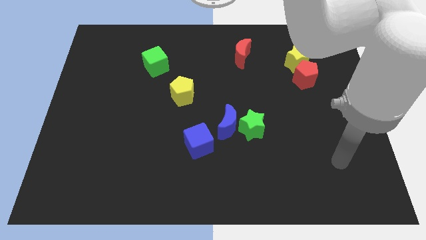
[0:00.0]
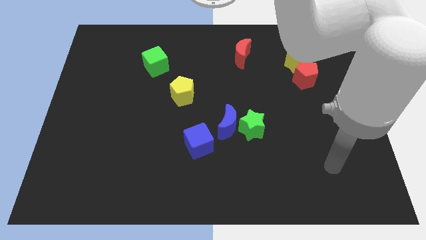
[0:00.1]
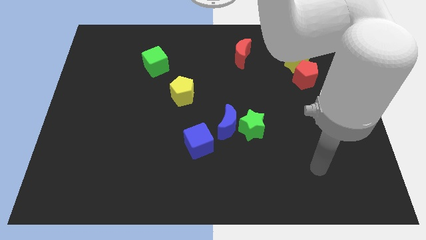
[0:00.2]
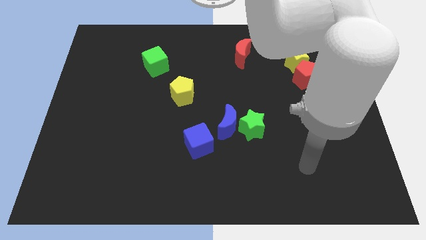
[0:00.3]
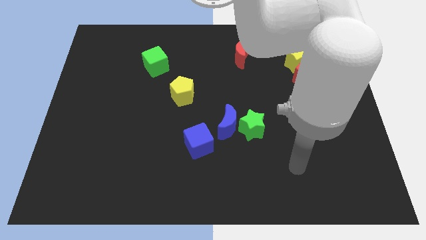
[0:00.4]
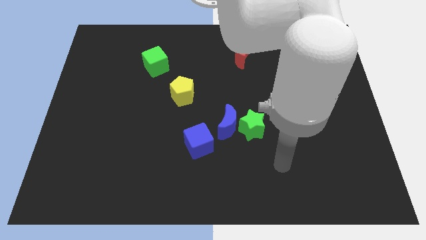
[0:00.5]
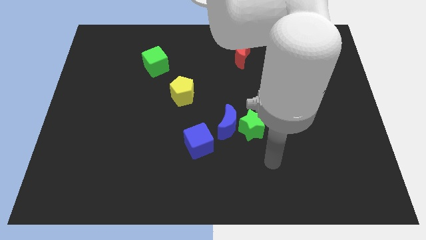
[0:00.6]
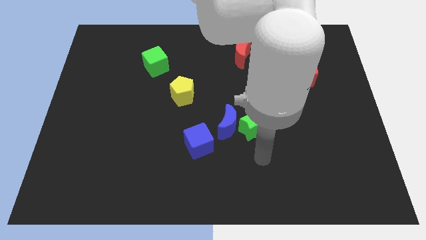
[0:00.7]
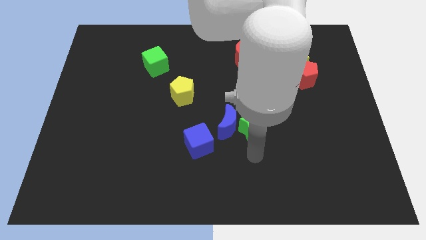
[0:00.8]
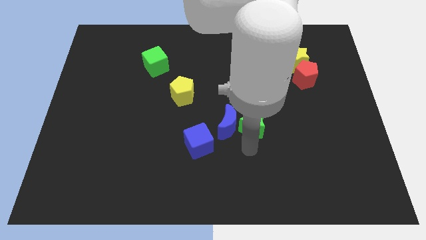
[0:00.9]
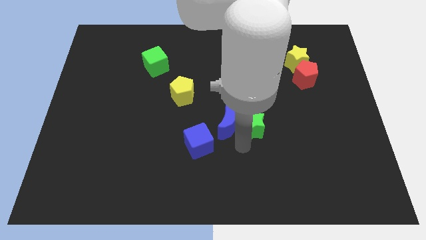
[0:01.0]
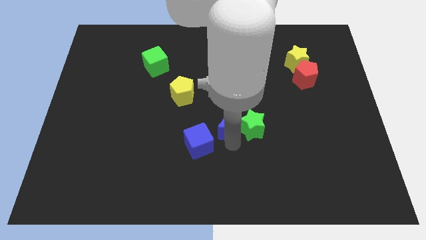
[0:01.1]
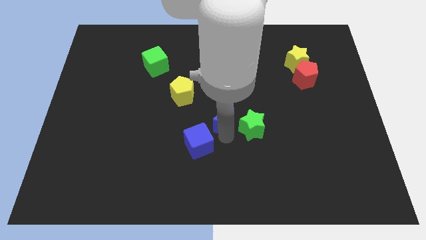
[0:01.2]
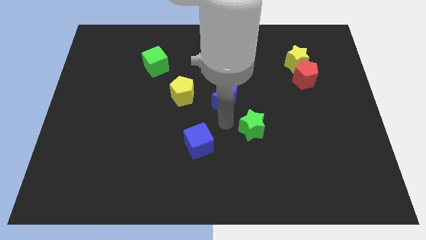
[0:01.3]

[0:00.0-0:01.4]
move the green star away from the blue moon

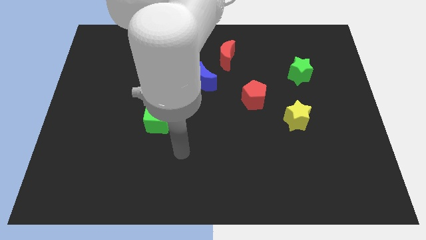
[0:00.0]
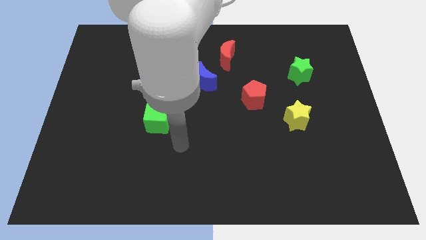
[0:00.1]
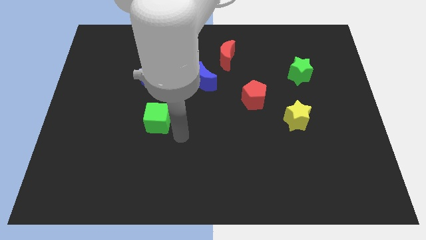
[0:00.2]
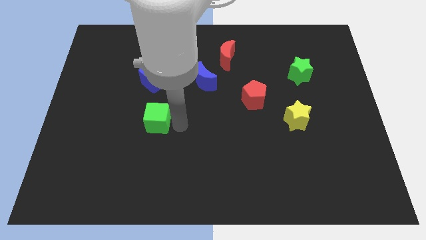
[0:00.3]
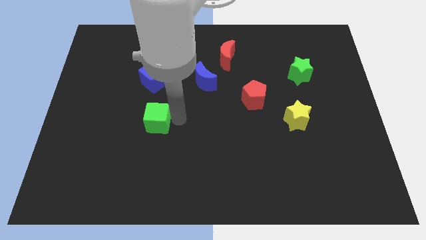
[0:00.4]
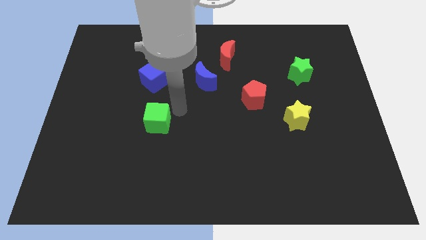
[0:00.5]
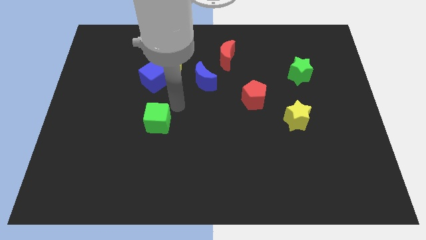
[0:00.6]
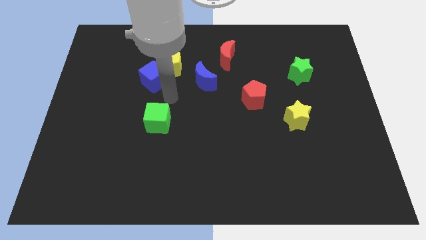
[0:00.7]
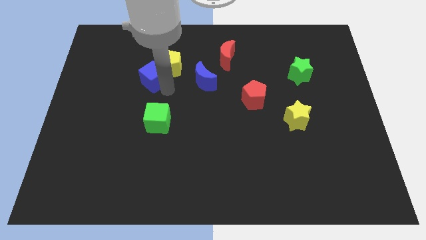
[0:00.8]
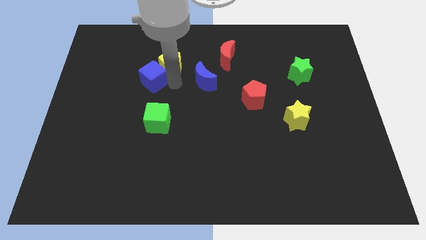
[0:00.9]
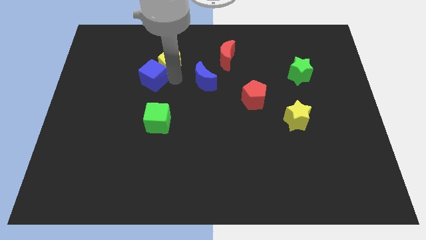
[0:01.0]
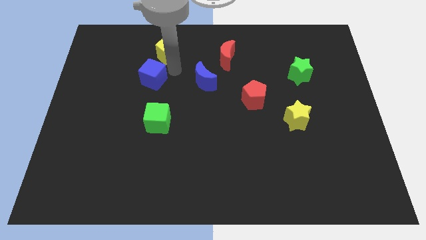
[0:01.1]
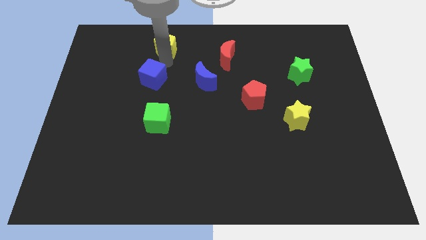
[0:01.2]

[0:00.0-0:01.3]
pull the blue cube apart from the yellow pentagon

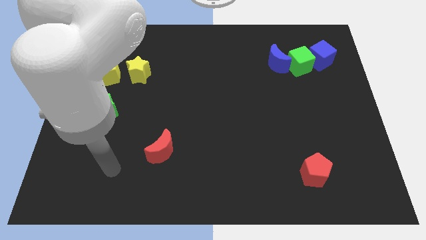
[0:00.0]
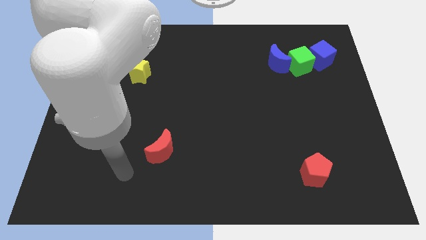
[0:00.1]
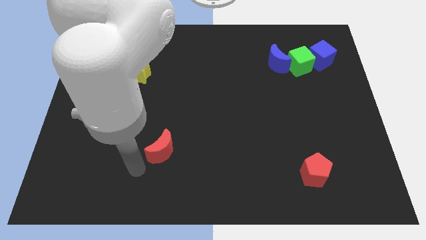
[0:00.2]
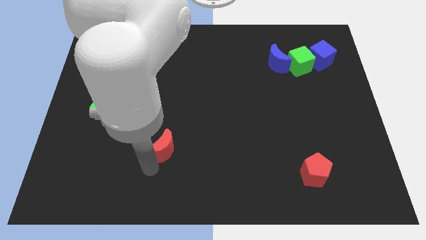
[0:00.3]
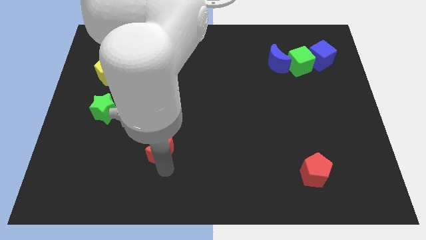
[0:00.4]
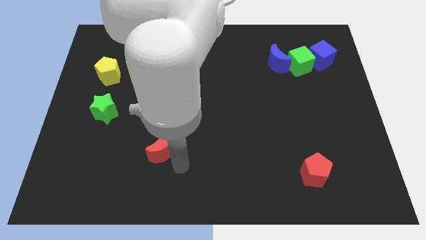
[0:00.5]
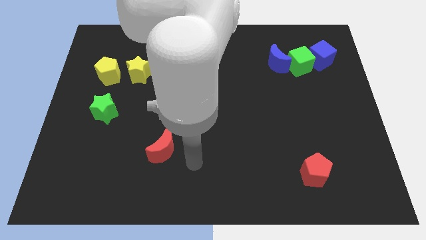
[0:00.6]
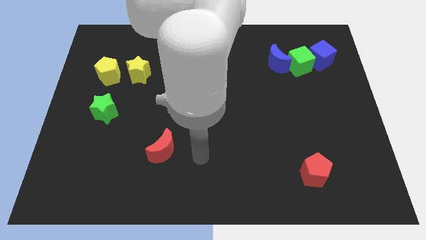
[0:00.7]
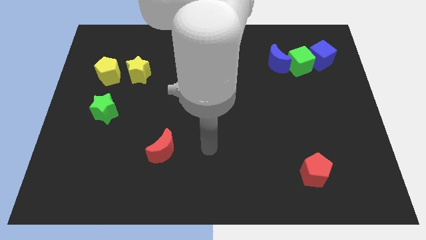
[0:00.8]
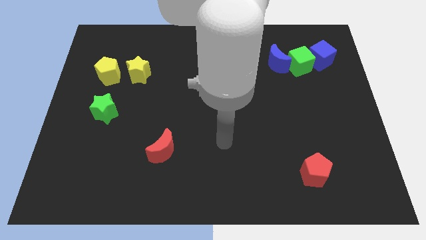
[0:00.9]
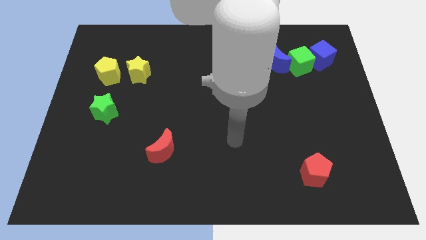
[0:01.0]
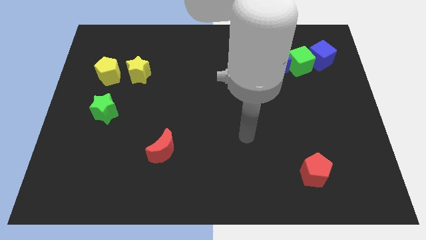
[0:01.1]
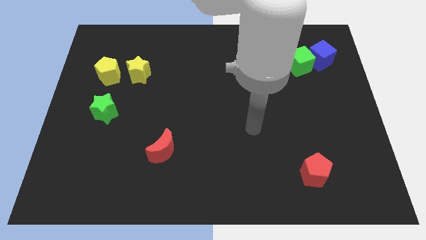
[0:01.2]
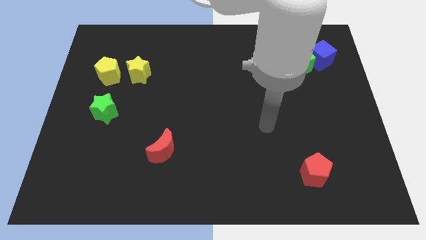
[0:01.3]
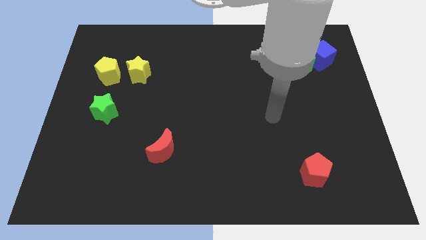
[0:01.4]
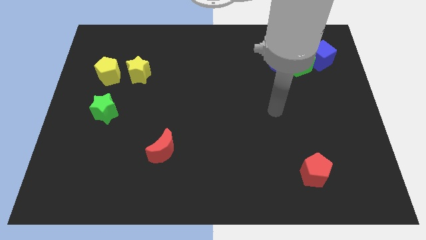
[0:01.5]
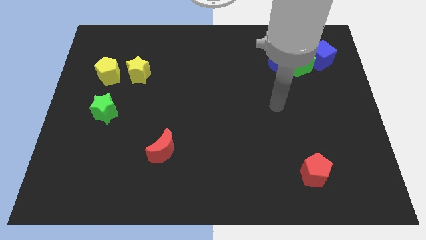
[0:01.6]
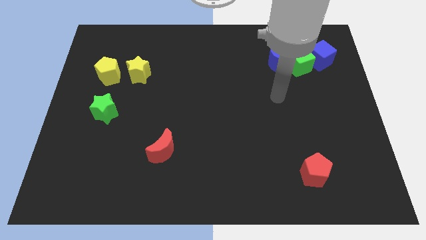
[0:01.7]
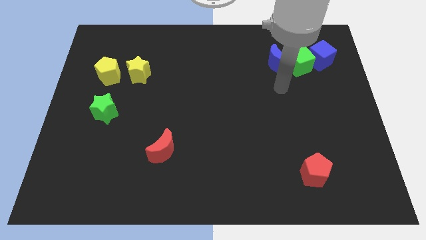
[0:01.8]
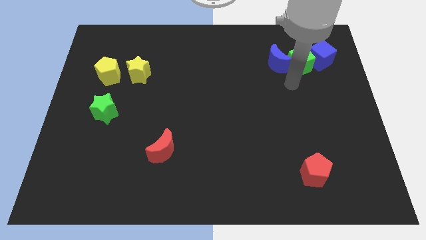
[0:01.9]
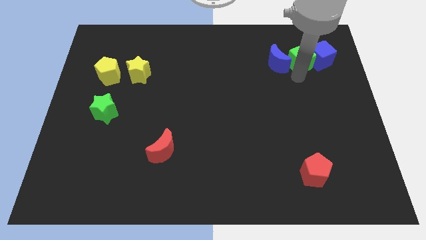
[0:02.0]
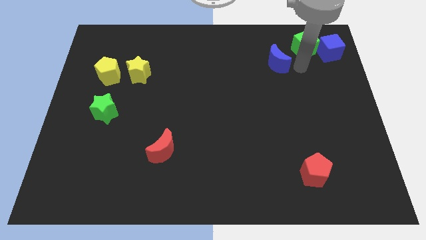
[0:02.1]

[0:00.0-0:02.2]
separate the blue moon from the green cube

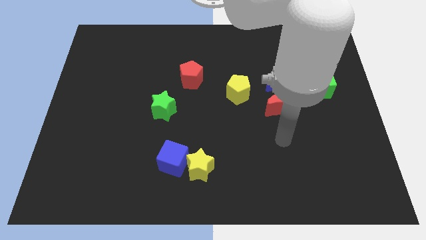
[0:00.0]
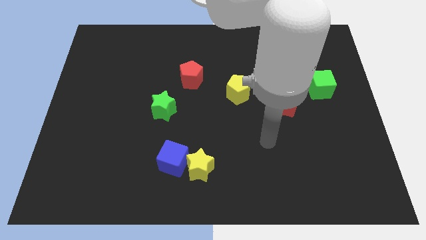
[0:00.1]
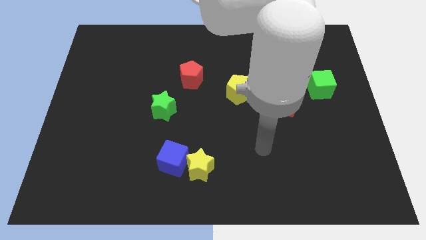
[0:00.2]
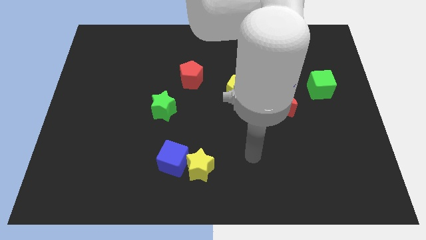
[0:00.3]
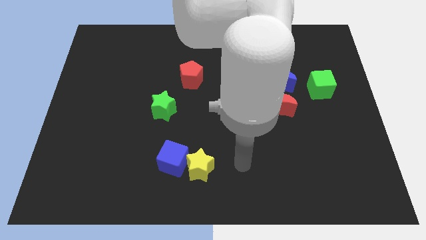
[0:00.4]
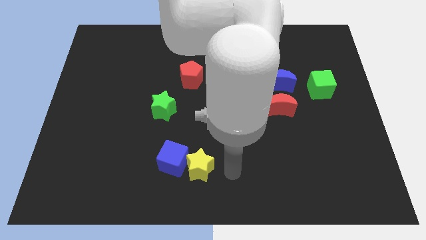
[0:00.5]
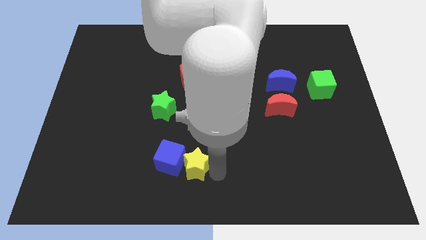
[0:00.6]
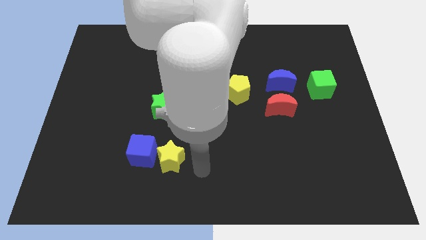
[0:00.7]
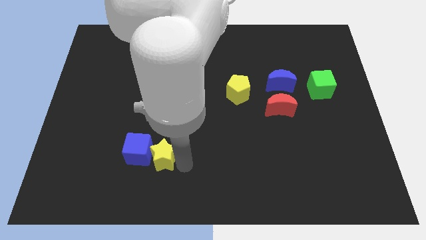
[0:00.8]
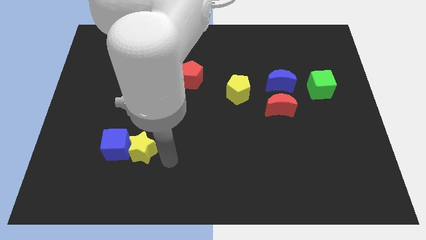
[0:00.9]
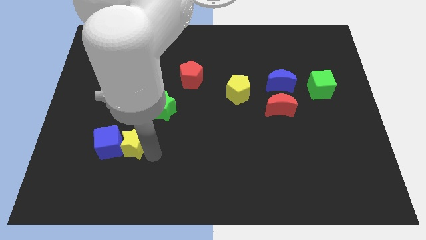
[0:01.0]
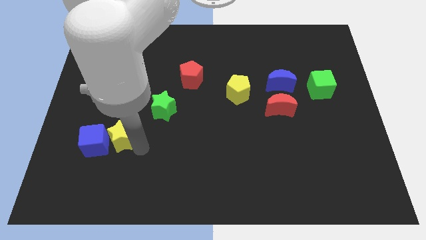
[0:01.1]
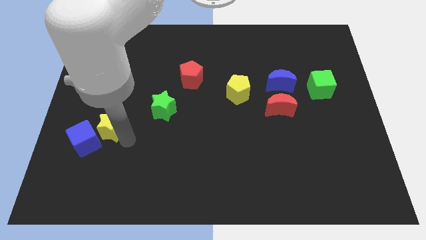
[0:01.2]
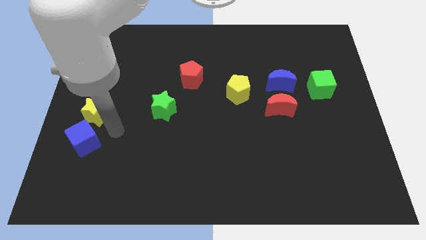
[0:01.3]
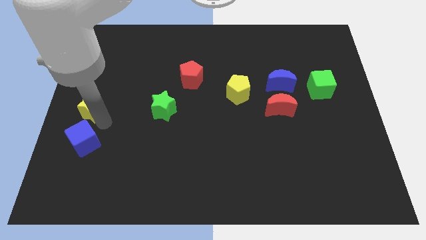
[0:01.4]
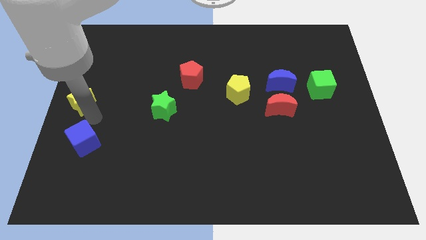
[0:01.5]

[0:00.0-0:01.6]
separate the blue cube from the yellow star

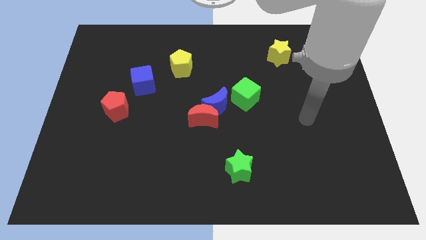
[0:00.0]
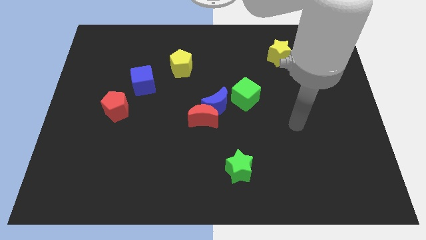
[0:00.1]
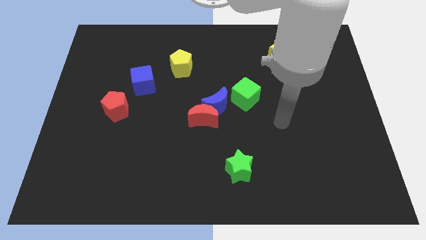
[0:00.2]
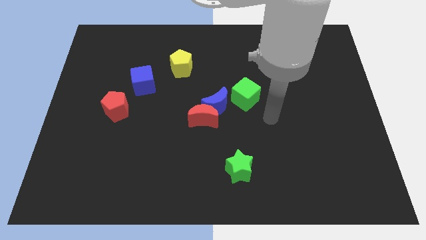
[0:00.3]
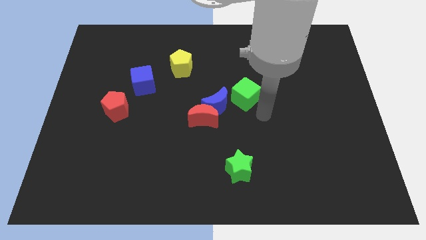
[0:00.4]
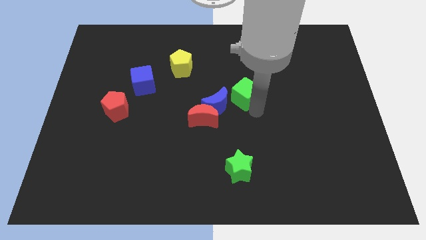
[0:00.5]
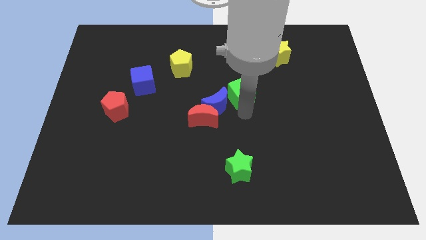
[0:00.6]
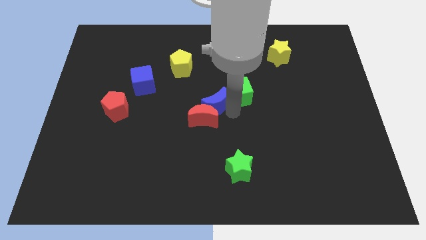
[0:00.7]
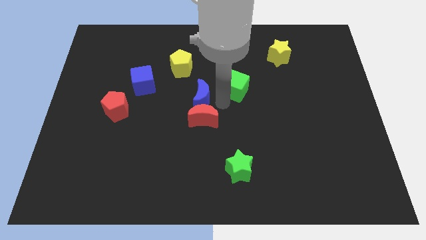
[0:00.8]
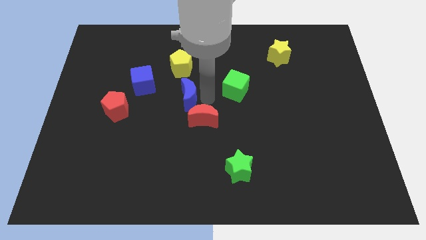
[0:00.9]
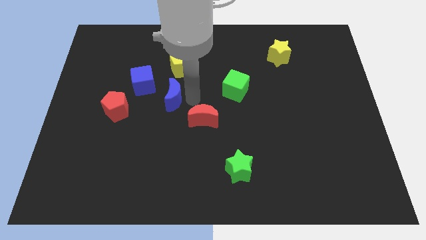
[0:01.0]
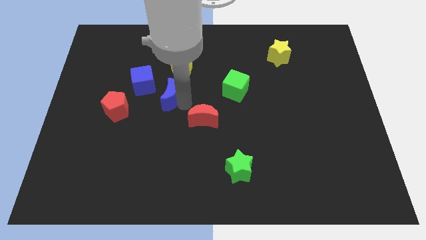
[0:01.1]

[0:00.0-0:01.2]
move the red moon away from the blue moon

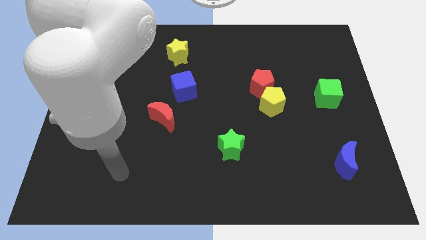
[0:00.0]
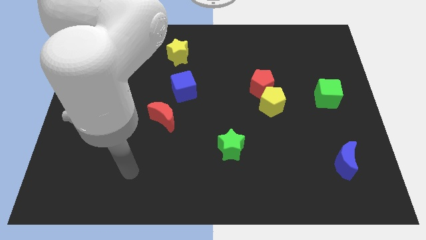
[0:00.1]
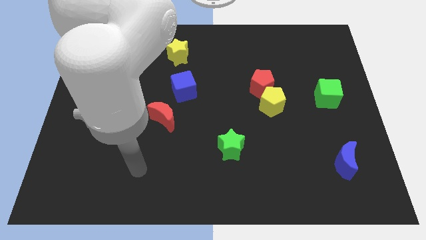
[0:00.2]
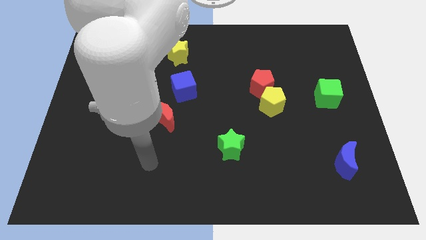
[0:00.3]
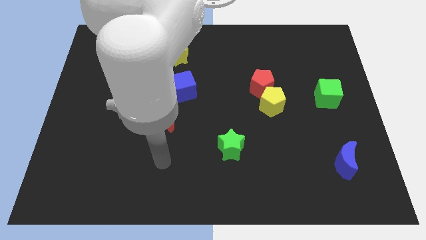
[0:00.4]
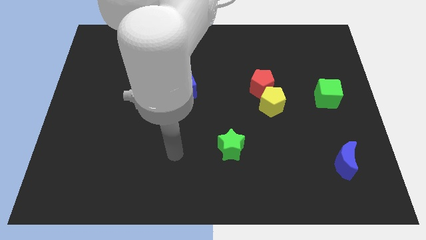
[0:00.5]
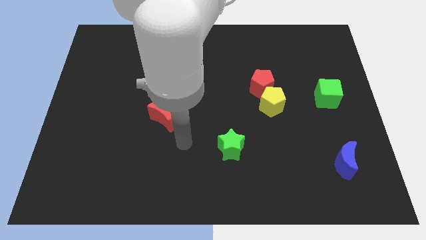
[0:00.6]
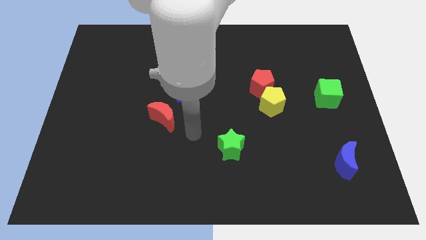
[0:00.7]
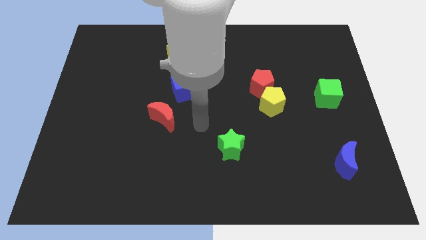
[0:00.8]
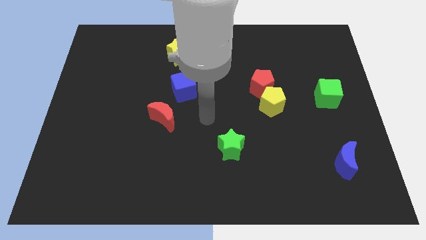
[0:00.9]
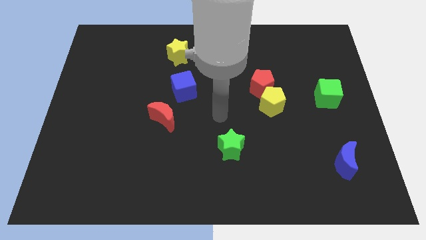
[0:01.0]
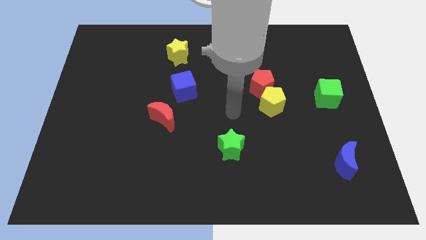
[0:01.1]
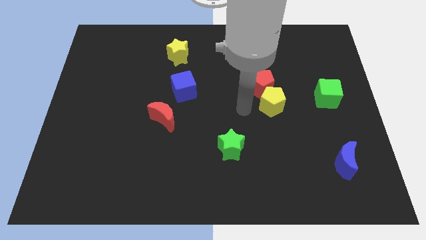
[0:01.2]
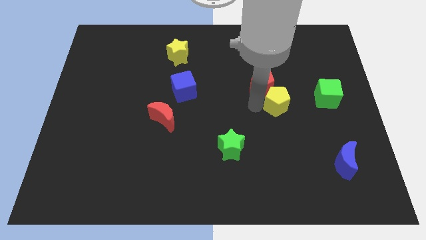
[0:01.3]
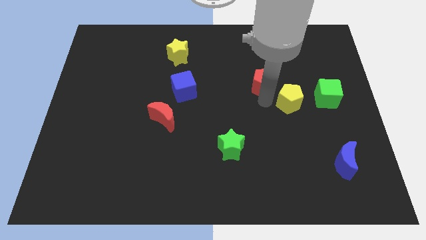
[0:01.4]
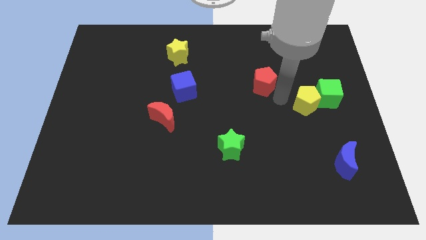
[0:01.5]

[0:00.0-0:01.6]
pull the red pentagon apart from the yellow pentagon
